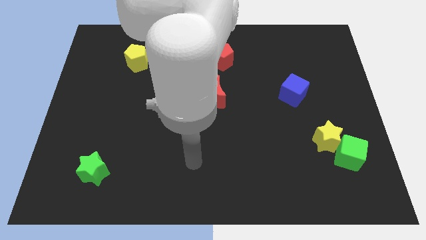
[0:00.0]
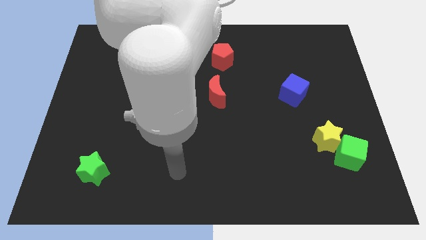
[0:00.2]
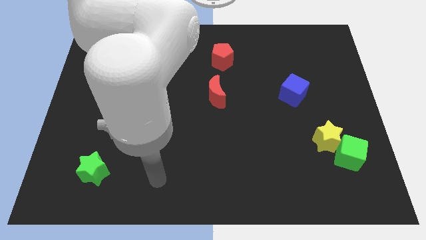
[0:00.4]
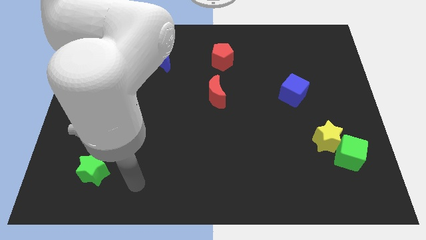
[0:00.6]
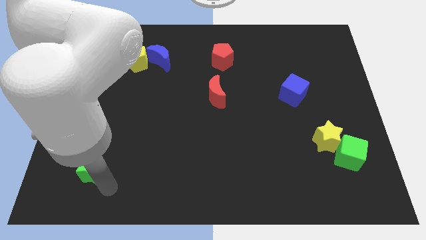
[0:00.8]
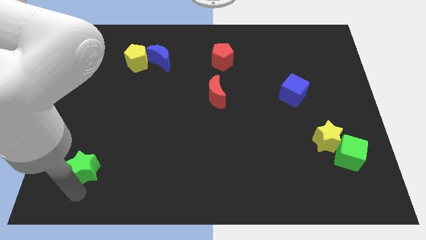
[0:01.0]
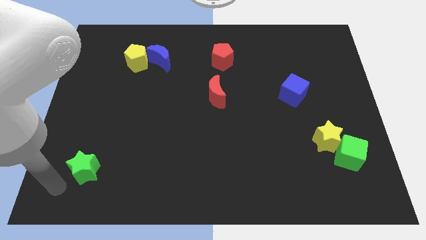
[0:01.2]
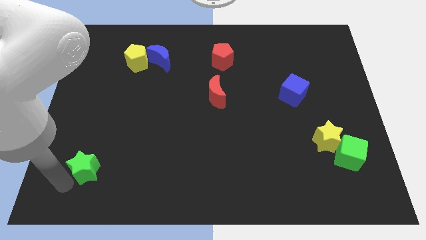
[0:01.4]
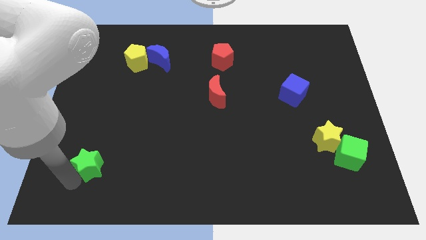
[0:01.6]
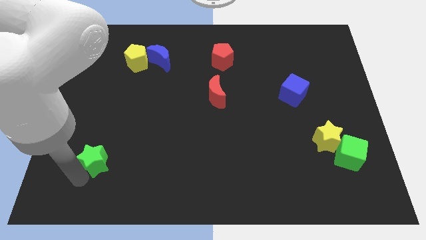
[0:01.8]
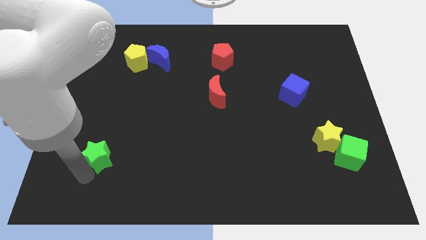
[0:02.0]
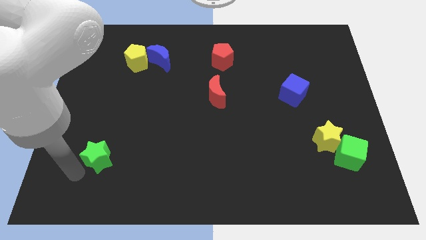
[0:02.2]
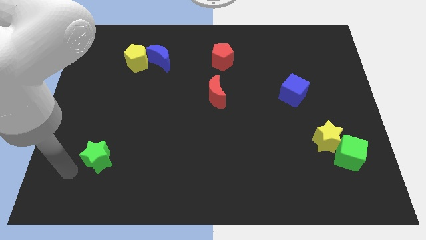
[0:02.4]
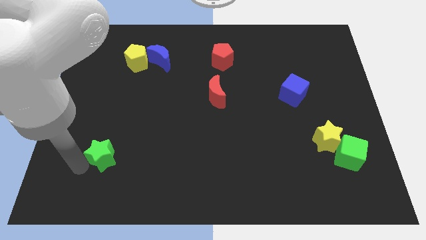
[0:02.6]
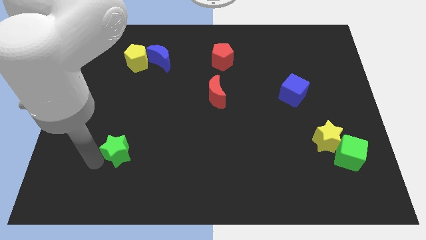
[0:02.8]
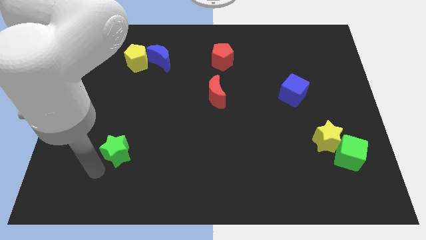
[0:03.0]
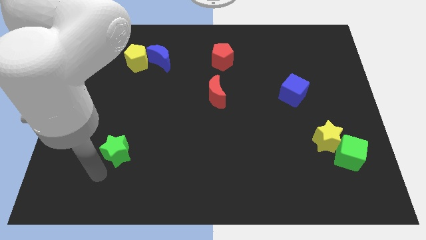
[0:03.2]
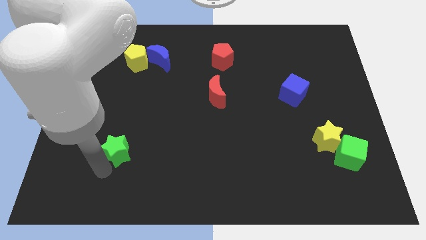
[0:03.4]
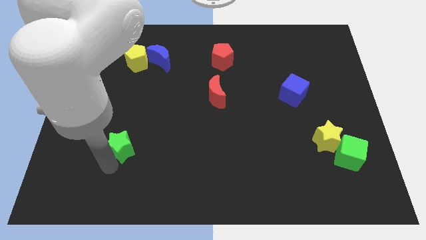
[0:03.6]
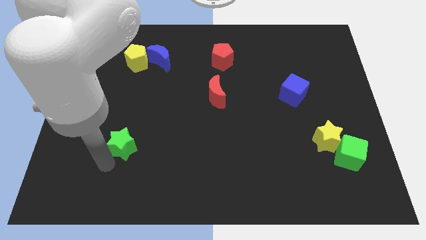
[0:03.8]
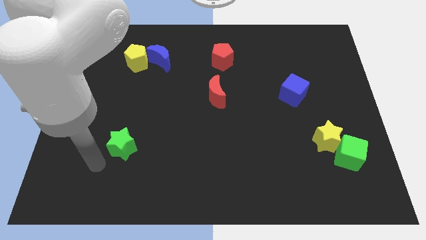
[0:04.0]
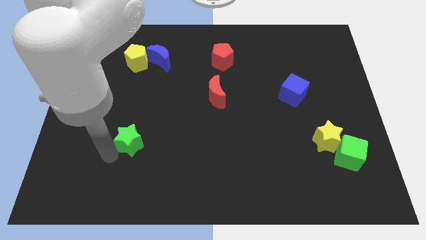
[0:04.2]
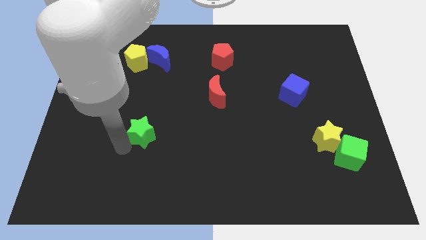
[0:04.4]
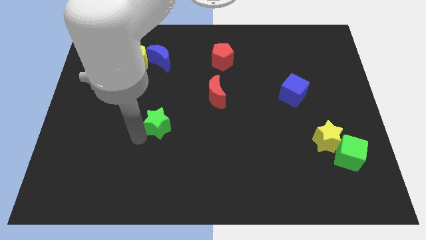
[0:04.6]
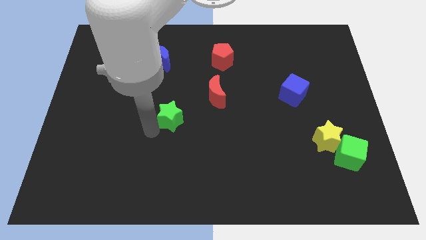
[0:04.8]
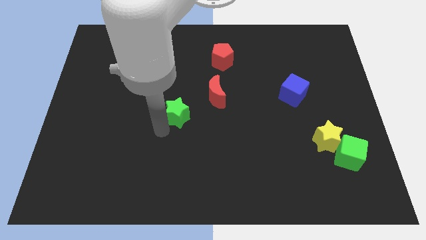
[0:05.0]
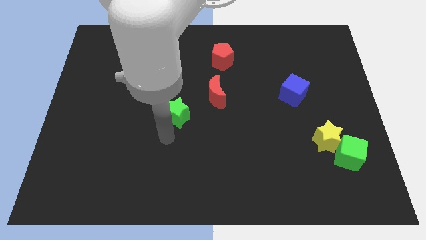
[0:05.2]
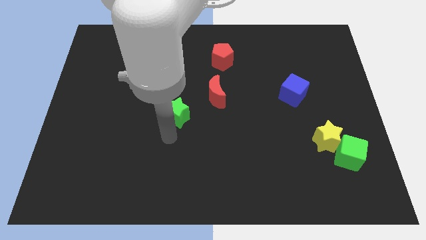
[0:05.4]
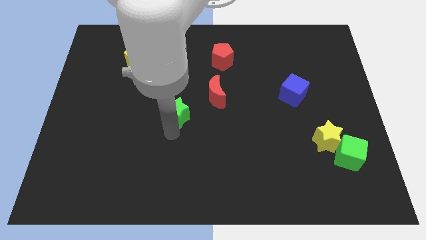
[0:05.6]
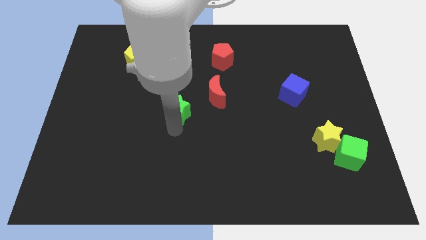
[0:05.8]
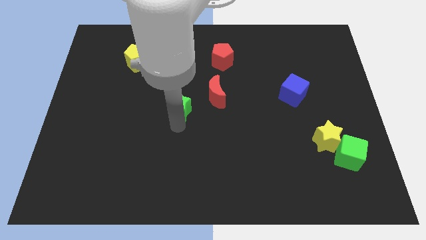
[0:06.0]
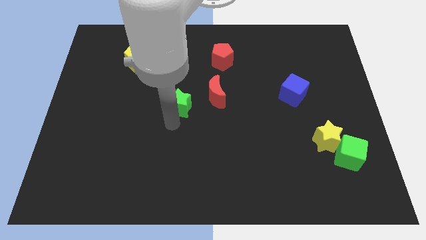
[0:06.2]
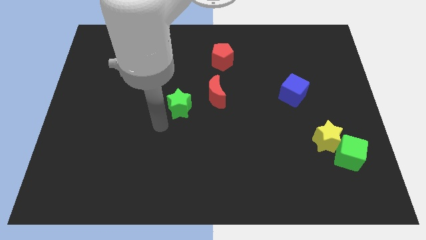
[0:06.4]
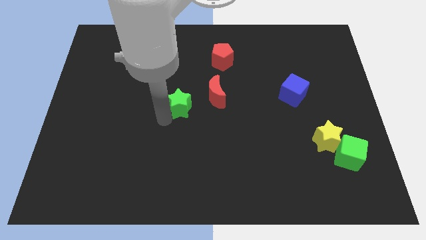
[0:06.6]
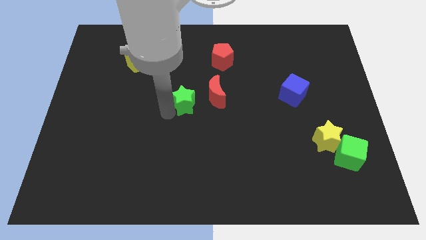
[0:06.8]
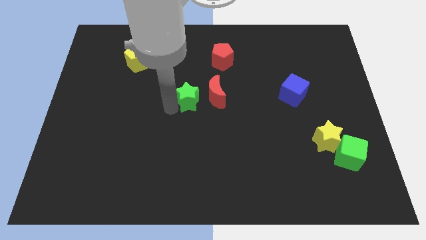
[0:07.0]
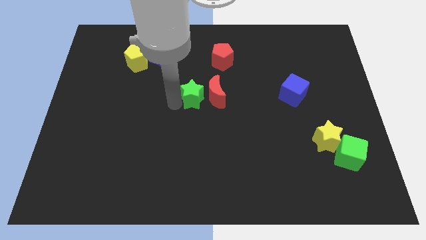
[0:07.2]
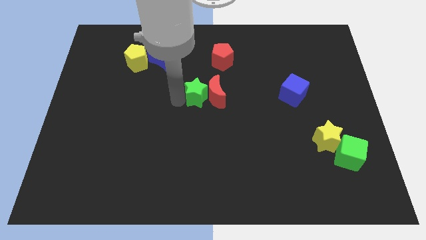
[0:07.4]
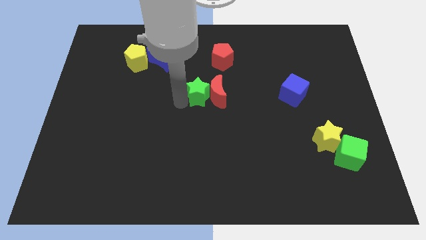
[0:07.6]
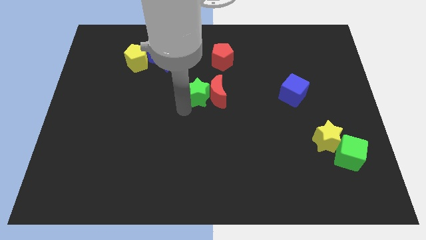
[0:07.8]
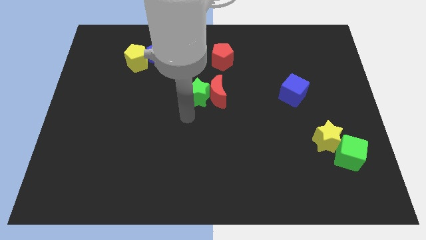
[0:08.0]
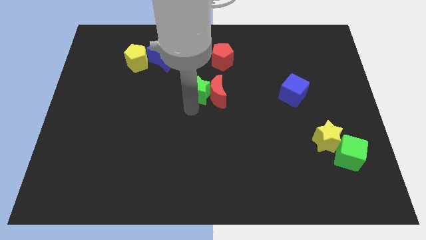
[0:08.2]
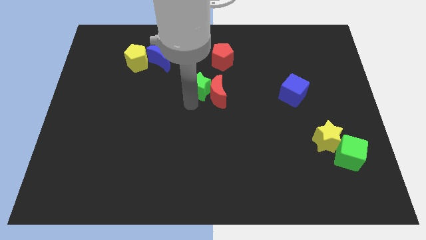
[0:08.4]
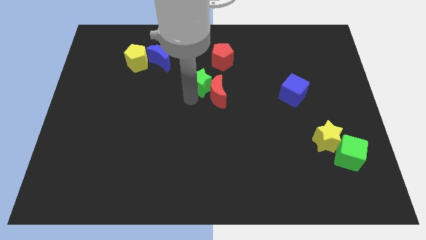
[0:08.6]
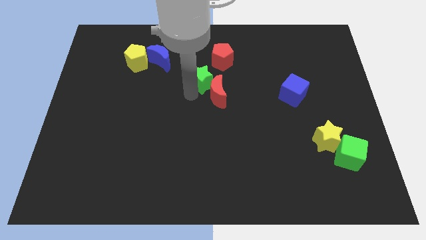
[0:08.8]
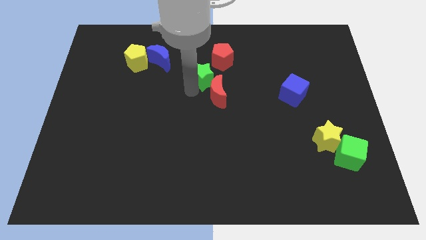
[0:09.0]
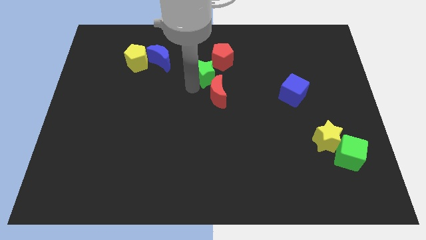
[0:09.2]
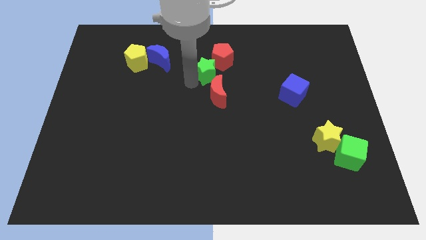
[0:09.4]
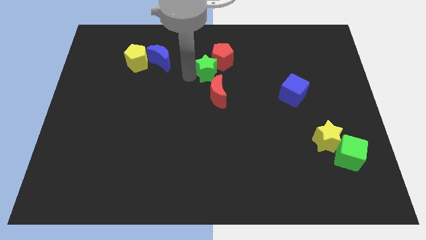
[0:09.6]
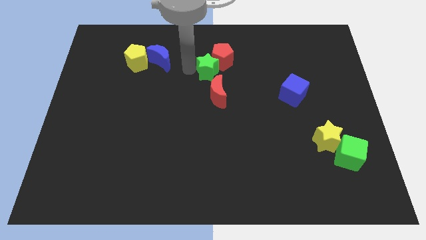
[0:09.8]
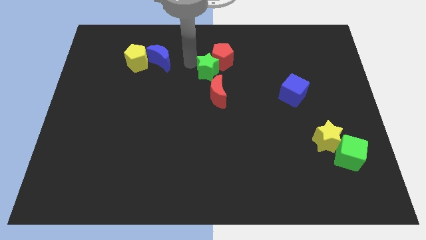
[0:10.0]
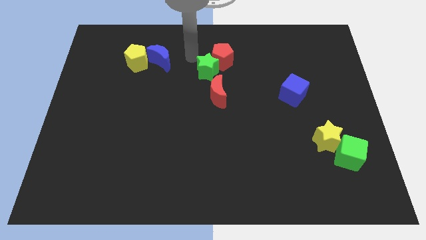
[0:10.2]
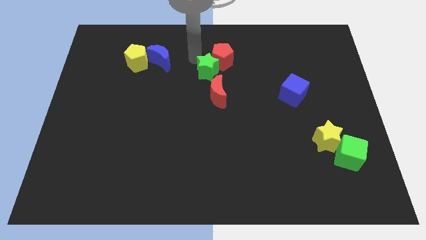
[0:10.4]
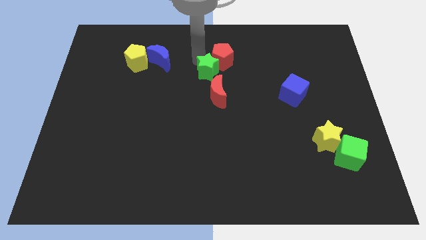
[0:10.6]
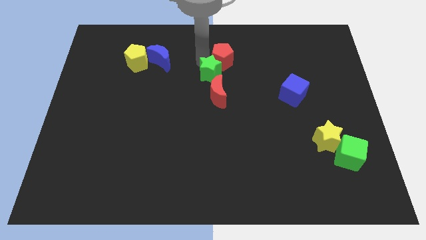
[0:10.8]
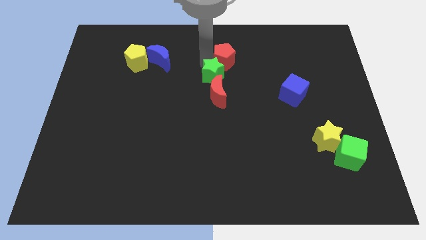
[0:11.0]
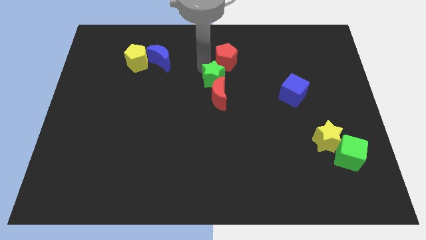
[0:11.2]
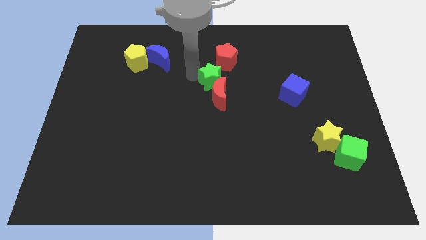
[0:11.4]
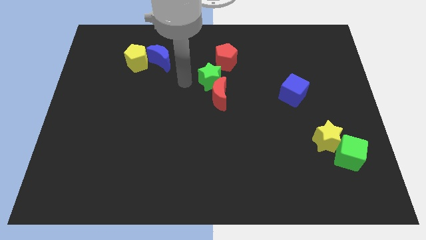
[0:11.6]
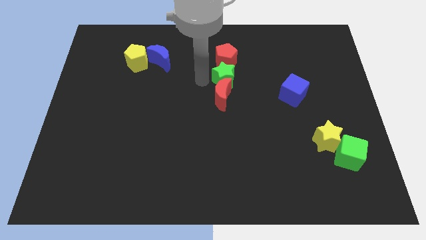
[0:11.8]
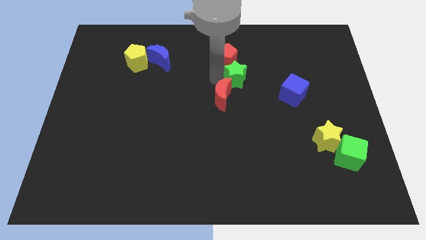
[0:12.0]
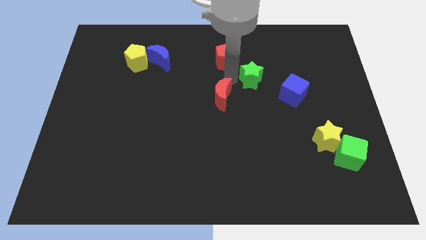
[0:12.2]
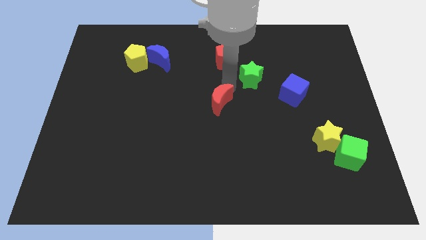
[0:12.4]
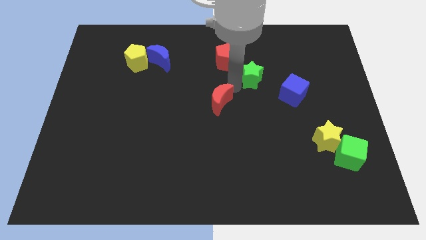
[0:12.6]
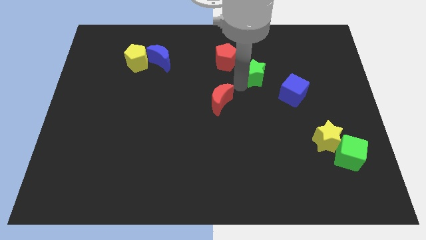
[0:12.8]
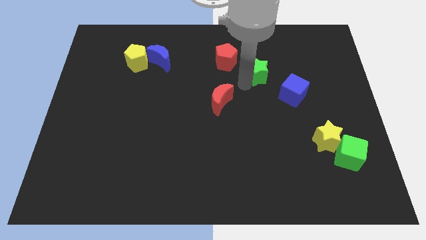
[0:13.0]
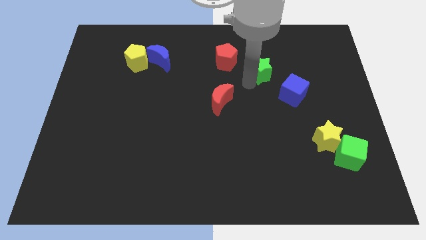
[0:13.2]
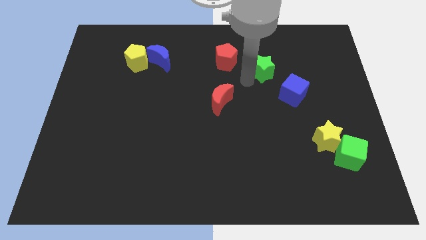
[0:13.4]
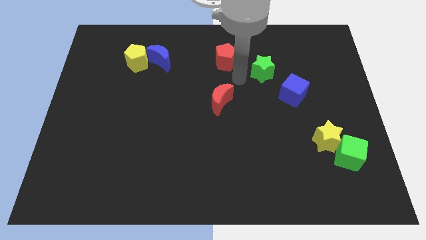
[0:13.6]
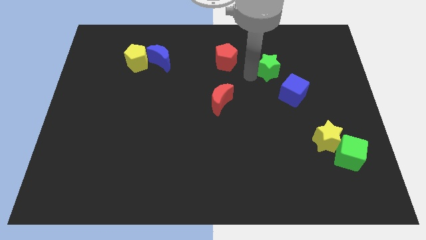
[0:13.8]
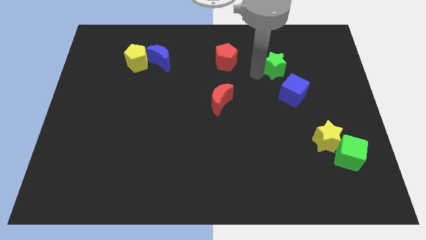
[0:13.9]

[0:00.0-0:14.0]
push the green star to the top side of the blue cube
